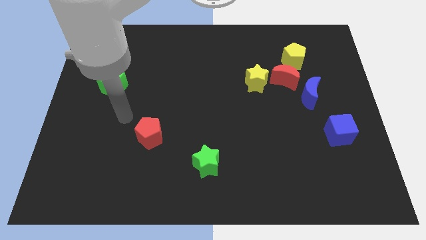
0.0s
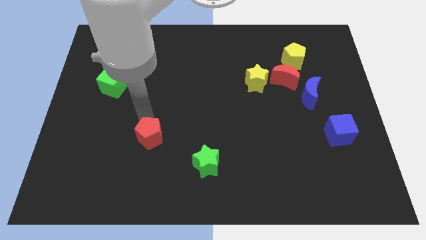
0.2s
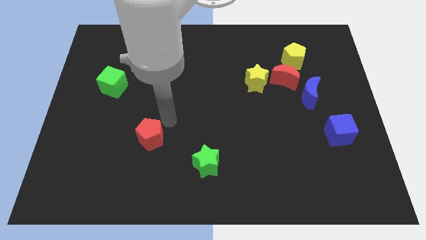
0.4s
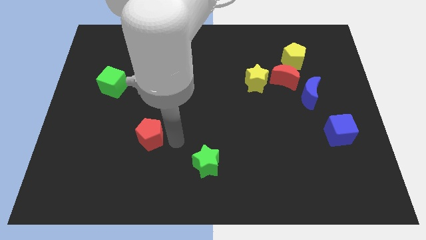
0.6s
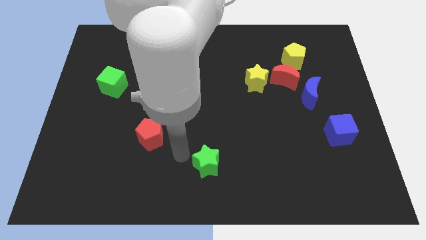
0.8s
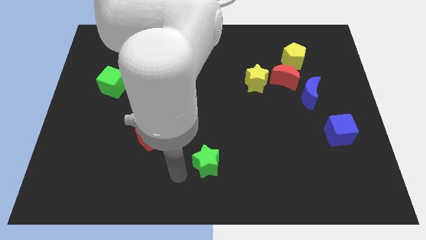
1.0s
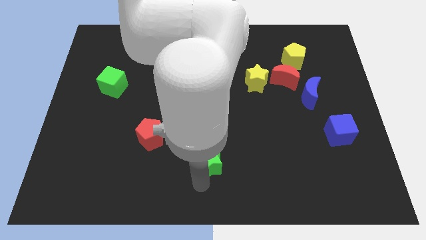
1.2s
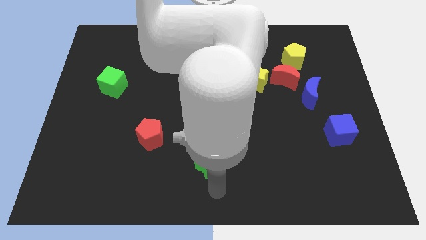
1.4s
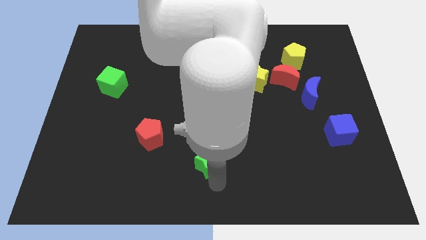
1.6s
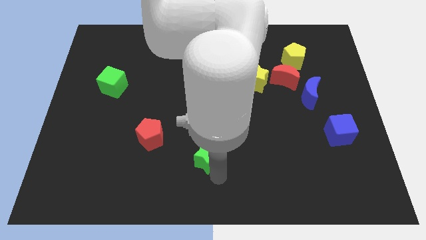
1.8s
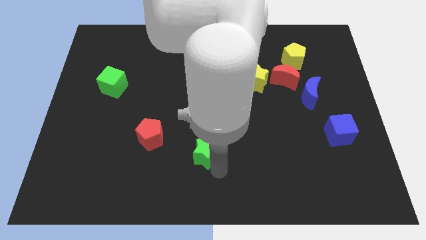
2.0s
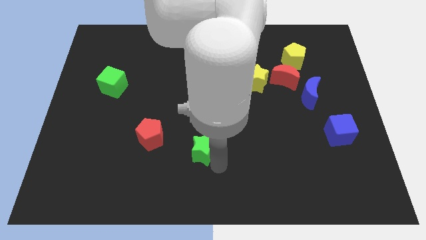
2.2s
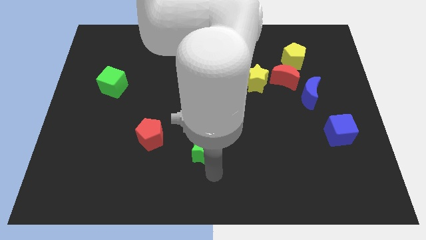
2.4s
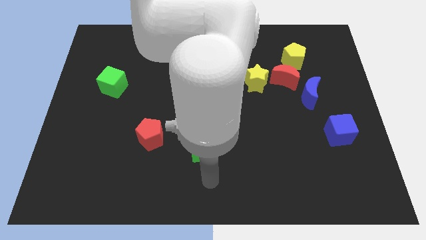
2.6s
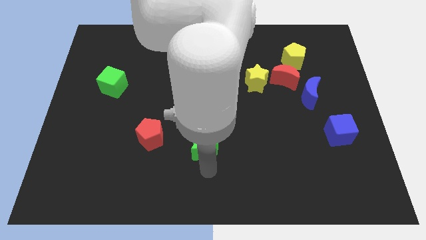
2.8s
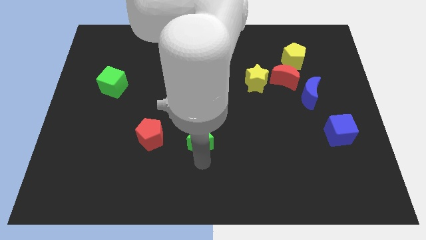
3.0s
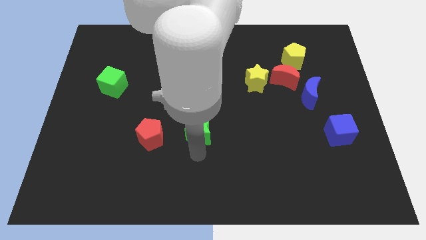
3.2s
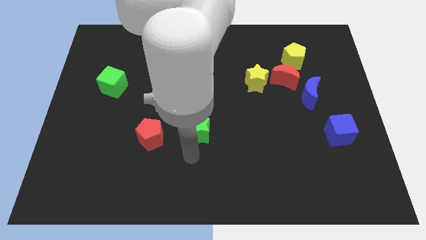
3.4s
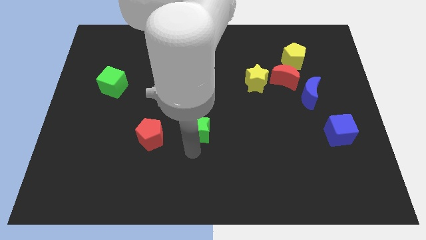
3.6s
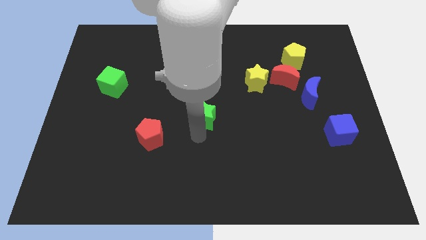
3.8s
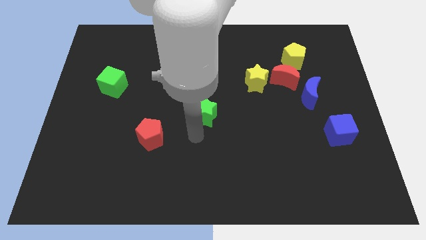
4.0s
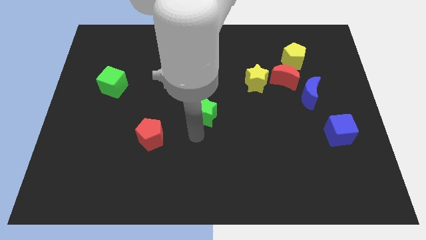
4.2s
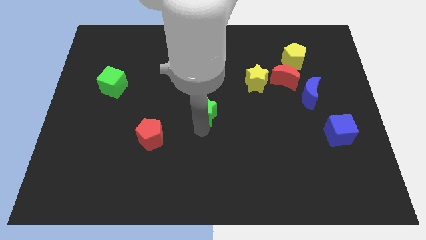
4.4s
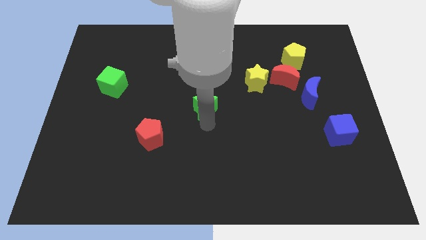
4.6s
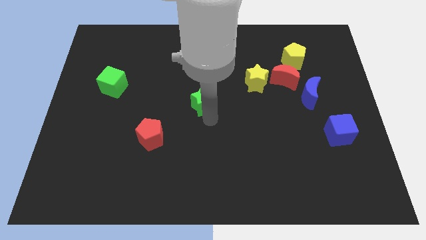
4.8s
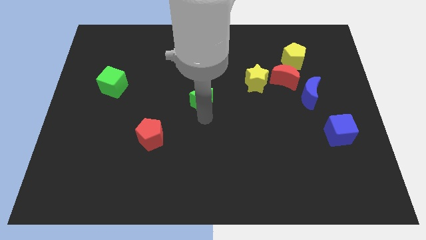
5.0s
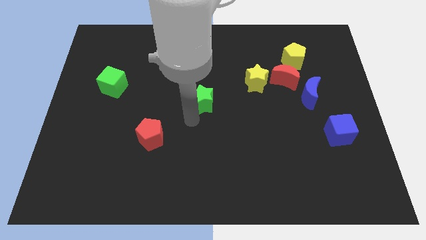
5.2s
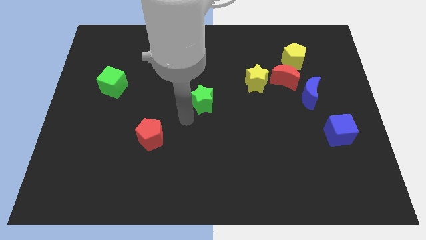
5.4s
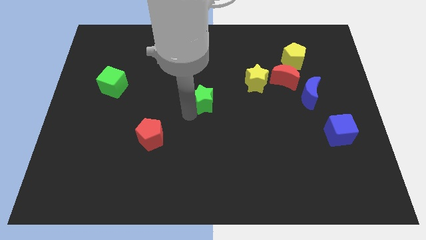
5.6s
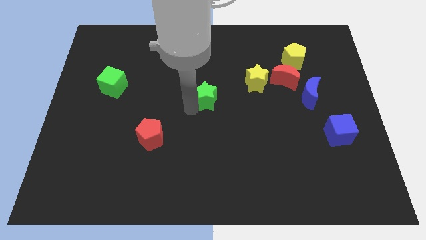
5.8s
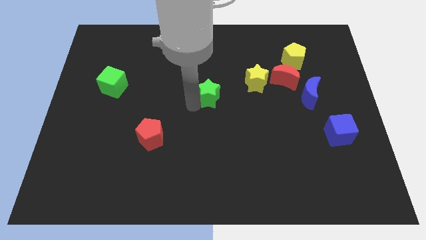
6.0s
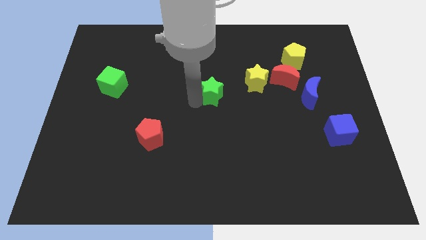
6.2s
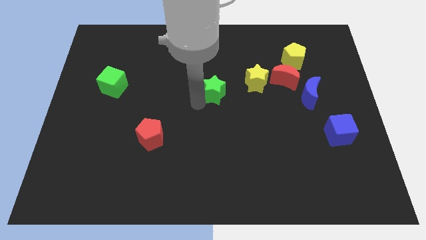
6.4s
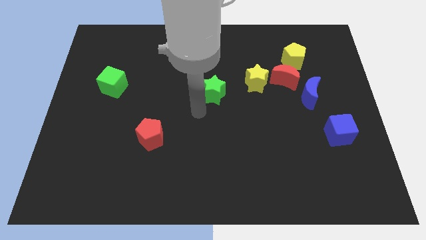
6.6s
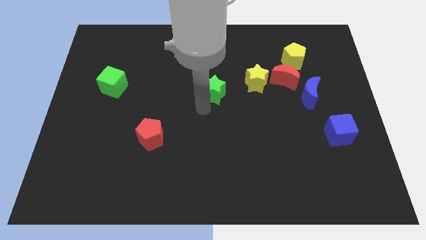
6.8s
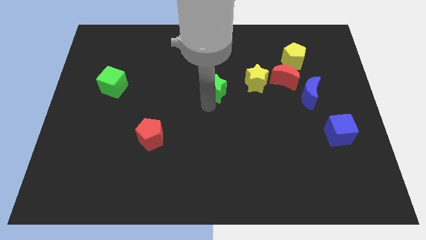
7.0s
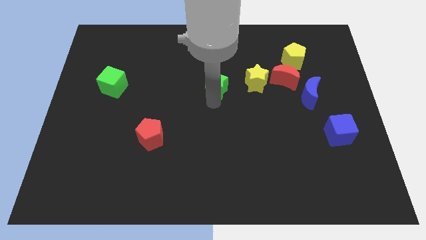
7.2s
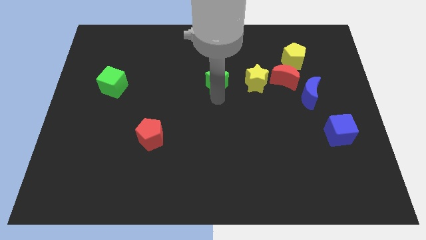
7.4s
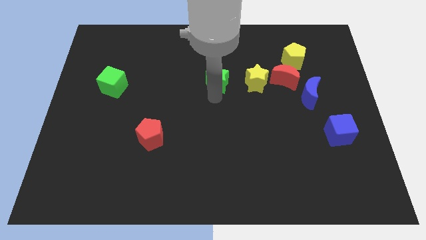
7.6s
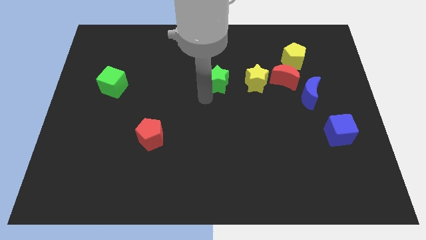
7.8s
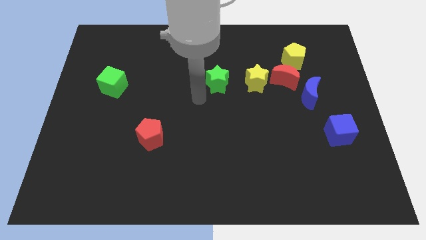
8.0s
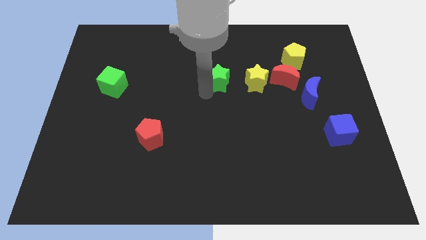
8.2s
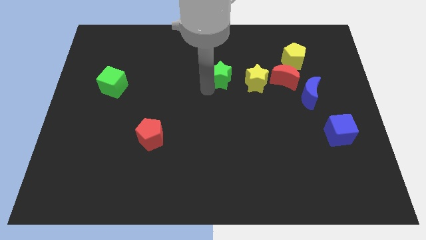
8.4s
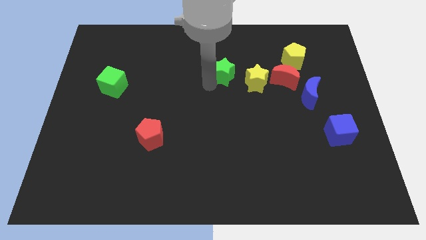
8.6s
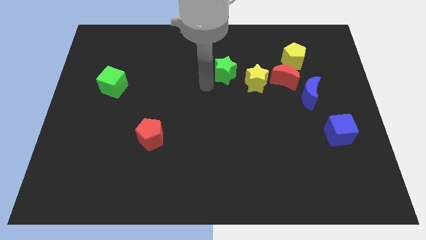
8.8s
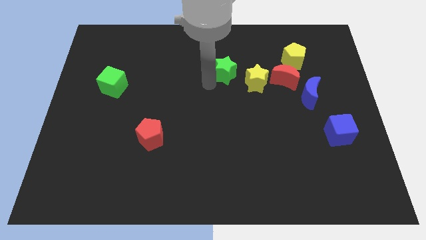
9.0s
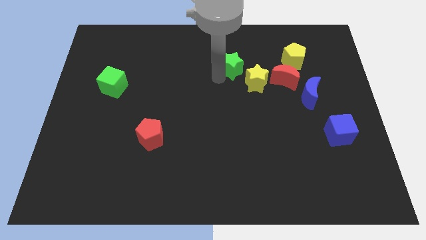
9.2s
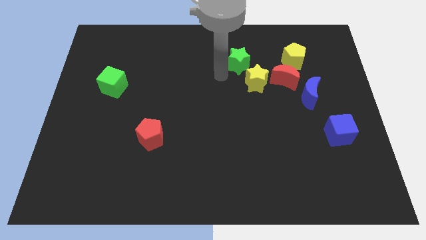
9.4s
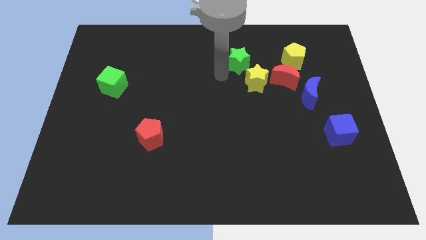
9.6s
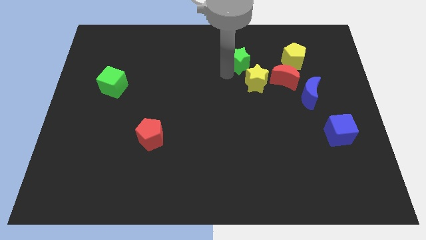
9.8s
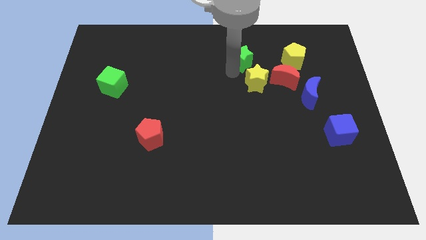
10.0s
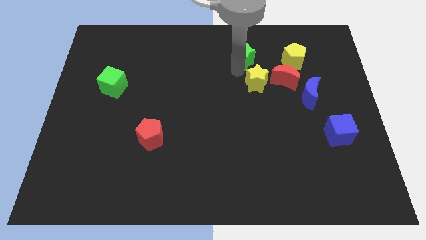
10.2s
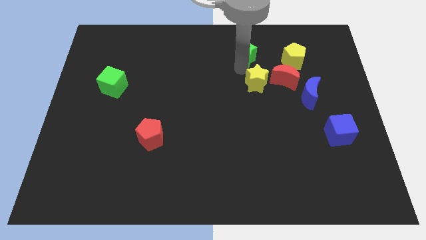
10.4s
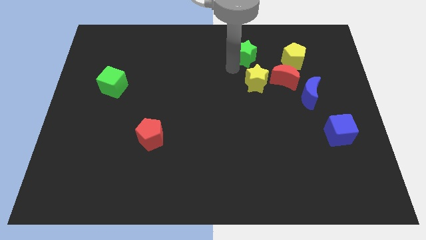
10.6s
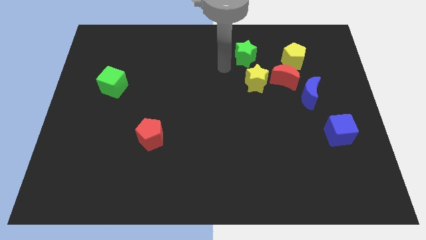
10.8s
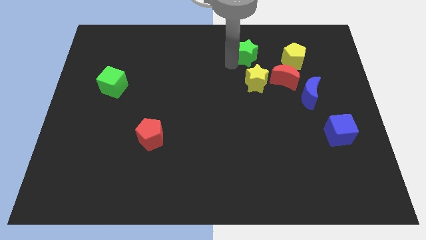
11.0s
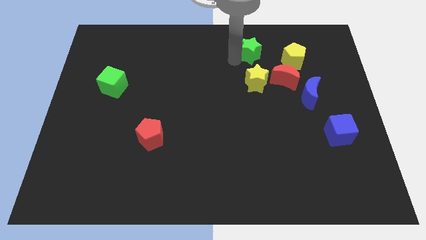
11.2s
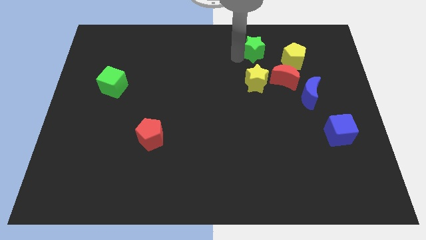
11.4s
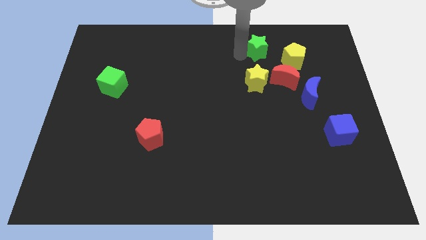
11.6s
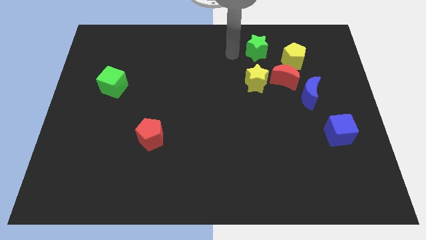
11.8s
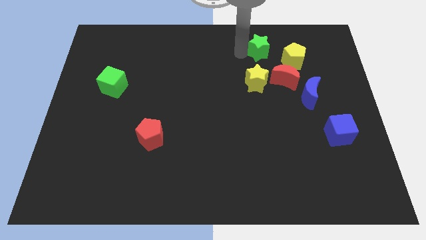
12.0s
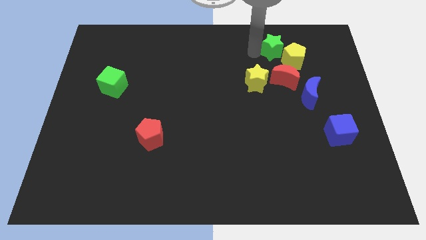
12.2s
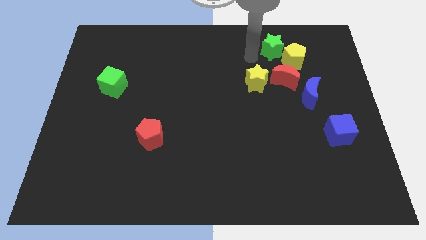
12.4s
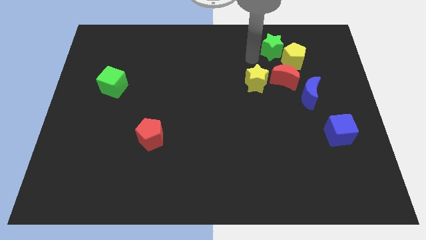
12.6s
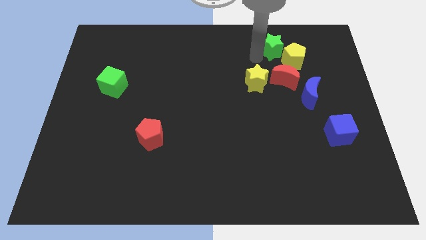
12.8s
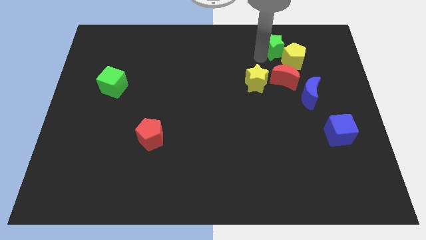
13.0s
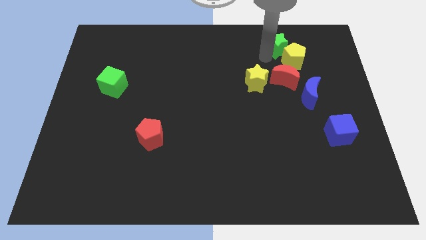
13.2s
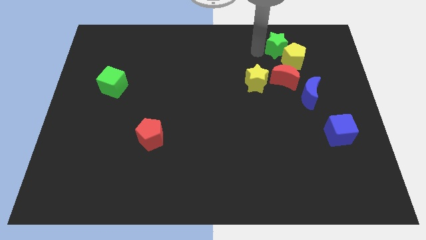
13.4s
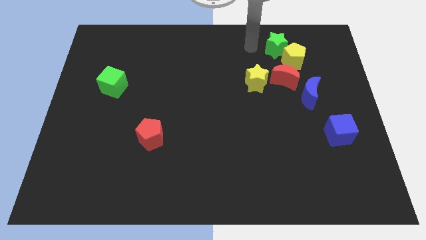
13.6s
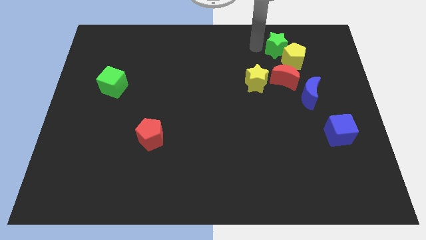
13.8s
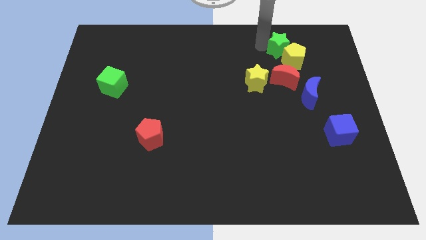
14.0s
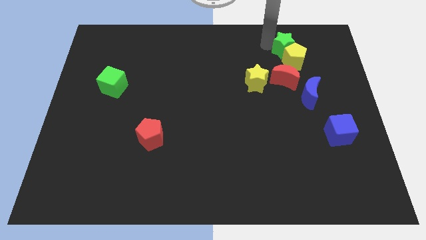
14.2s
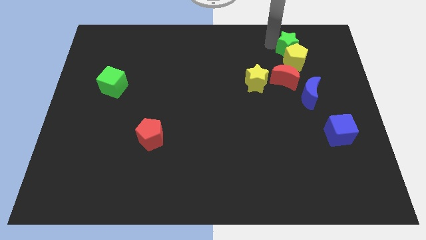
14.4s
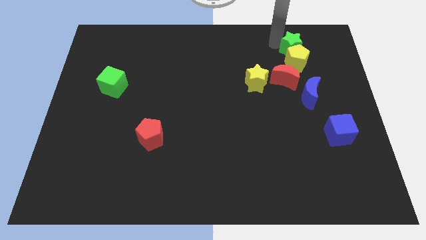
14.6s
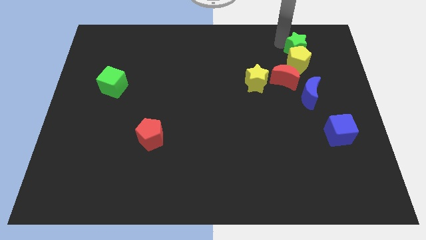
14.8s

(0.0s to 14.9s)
slide the green star to the top of the blue moon
